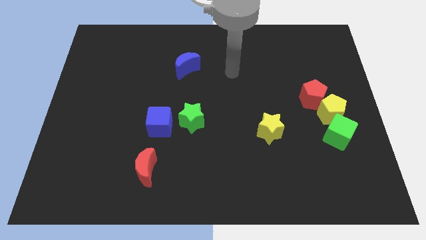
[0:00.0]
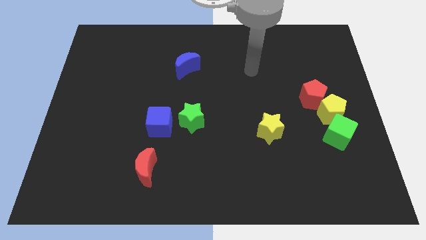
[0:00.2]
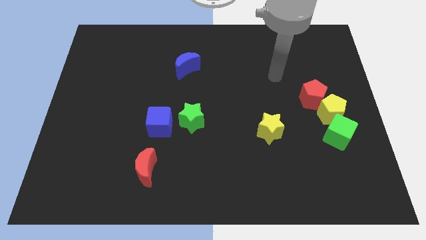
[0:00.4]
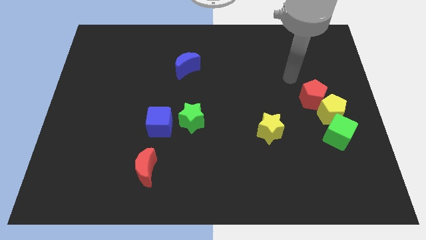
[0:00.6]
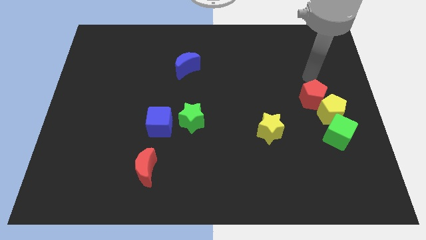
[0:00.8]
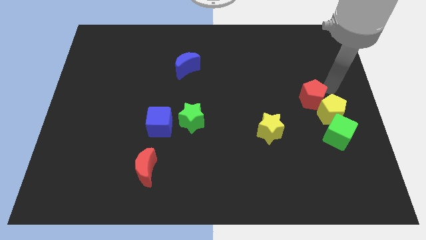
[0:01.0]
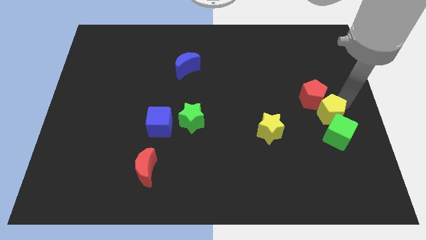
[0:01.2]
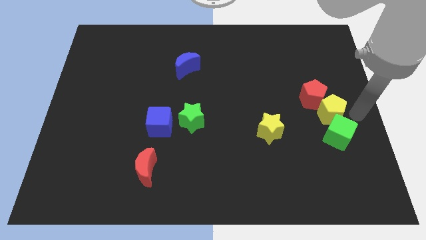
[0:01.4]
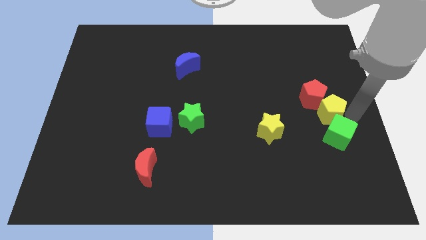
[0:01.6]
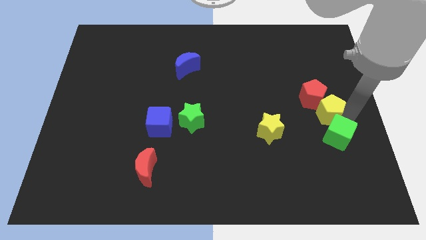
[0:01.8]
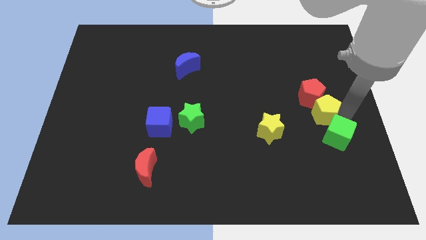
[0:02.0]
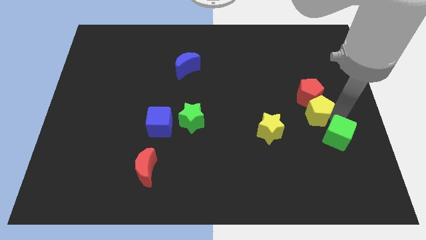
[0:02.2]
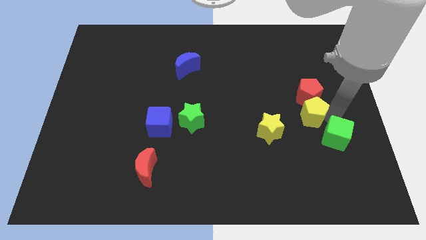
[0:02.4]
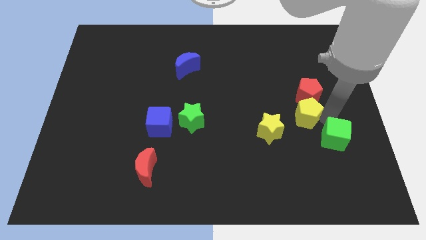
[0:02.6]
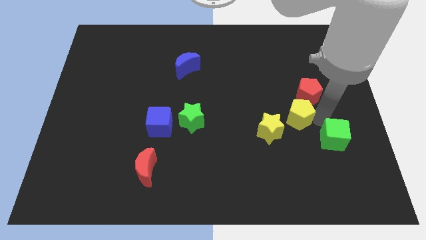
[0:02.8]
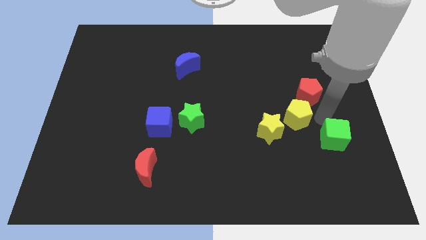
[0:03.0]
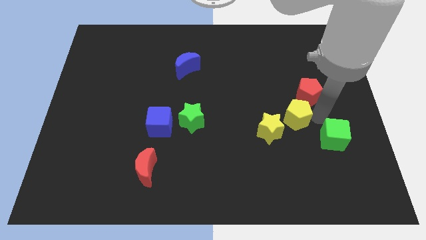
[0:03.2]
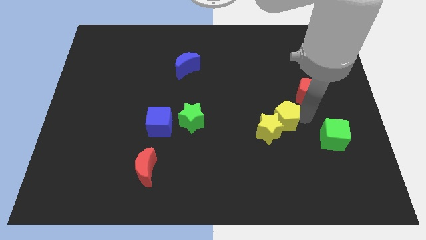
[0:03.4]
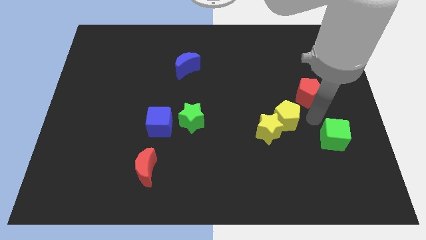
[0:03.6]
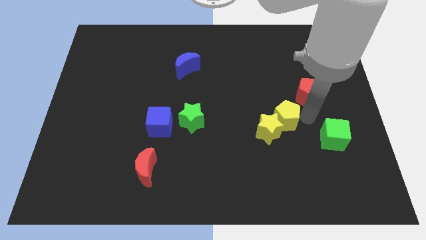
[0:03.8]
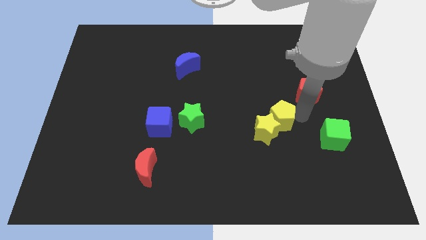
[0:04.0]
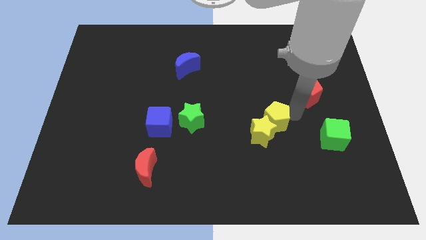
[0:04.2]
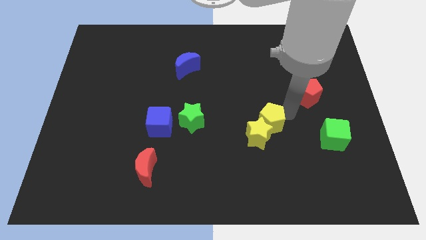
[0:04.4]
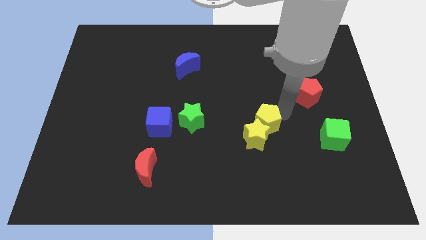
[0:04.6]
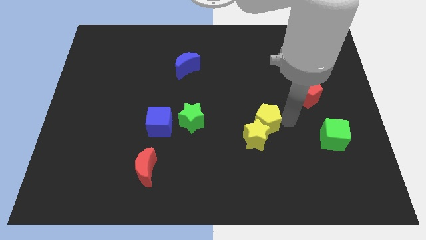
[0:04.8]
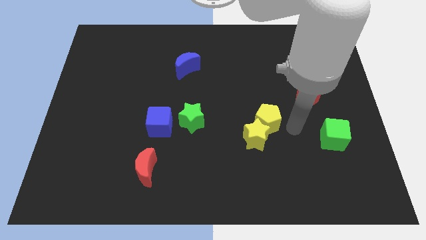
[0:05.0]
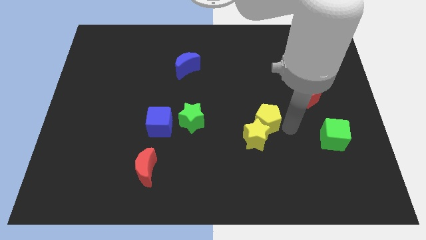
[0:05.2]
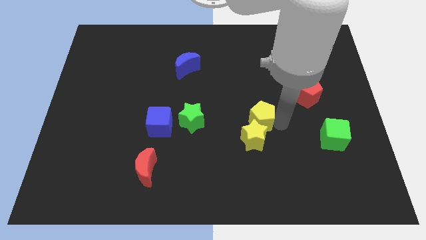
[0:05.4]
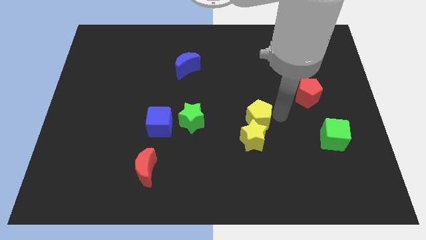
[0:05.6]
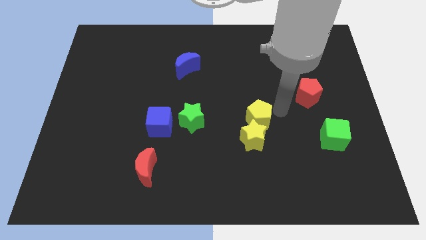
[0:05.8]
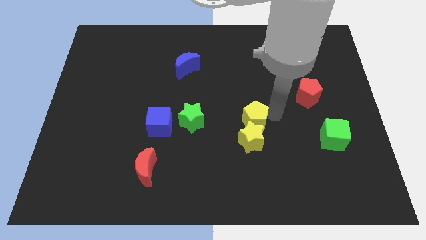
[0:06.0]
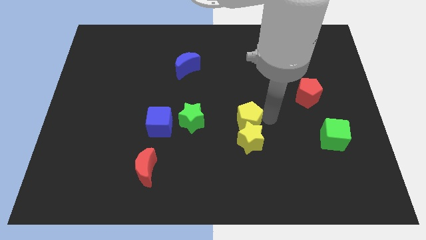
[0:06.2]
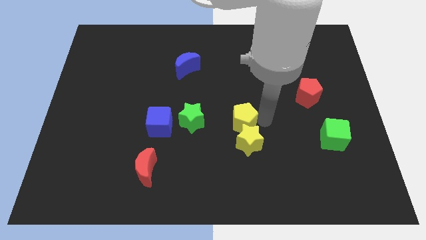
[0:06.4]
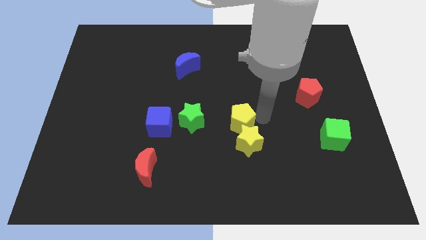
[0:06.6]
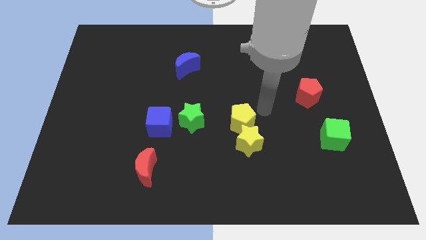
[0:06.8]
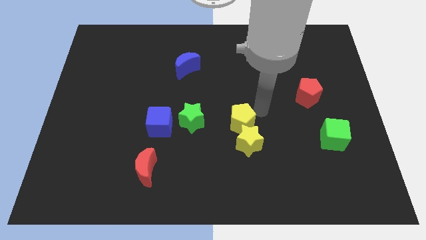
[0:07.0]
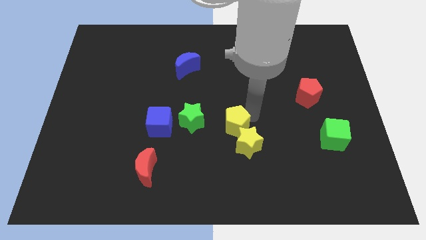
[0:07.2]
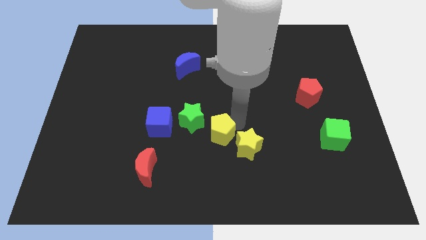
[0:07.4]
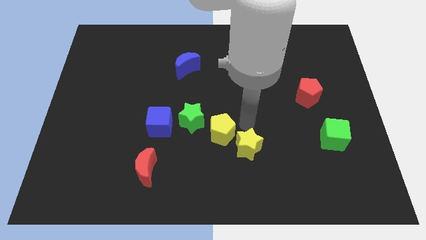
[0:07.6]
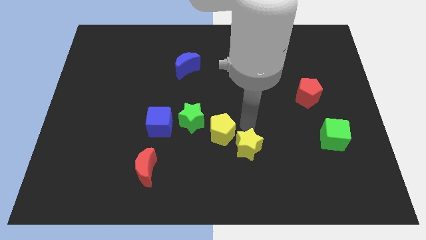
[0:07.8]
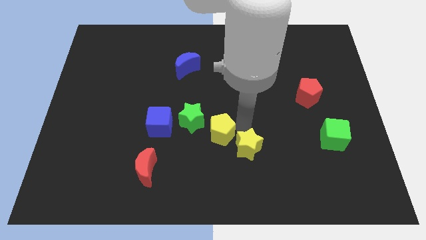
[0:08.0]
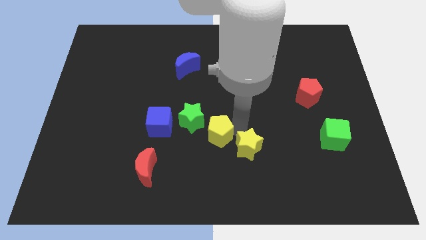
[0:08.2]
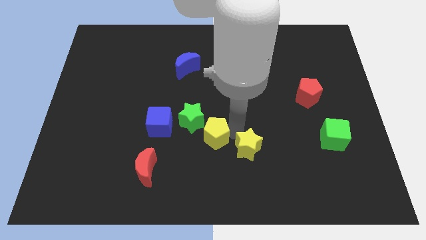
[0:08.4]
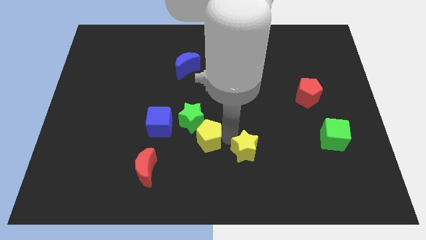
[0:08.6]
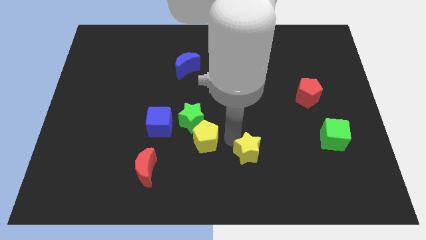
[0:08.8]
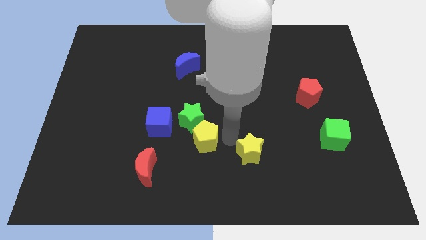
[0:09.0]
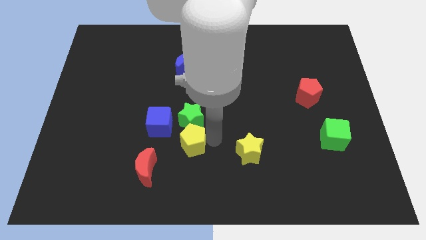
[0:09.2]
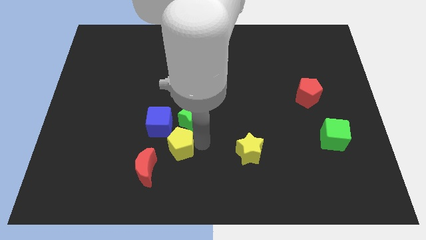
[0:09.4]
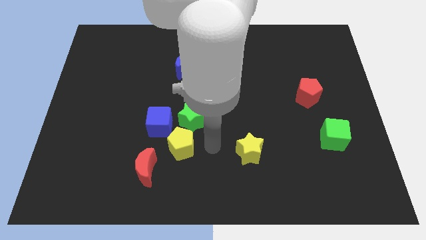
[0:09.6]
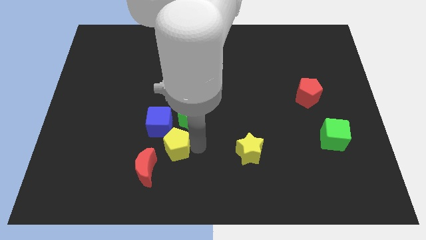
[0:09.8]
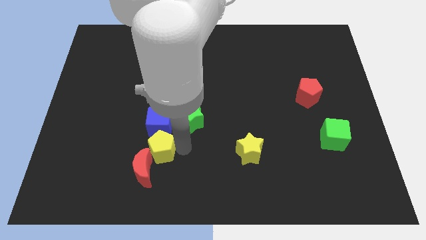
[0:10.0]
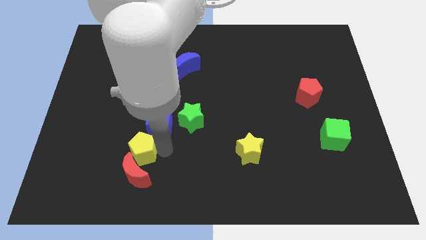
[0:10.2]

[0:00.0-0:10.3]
move the yellow pentagon diagonally up and to the left of the red moon

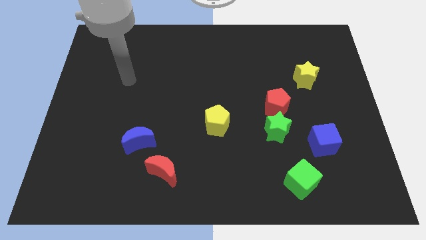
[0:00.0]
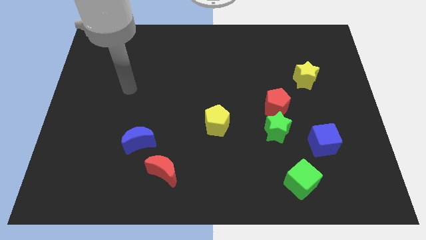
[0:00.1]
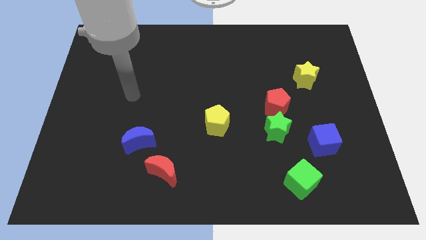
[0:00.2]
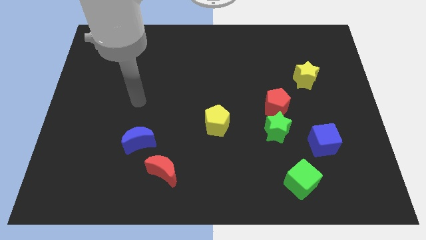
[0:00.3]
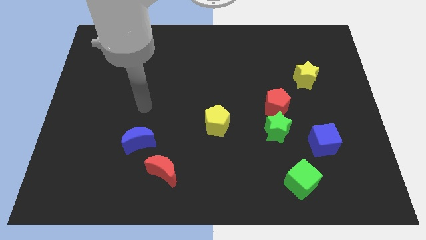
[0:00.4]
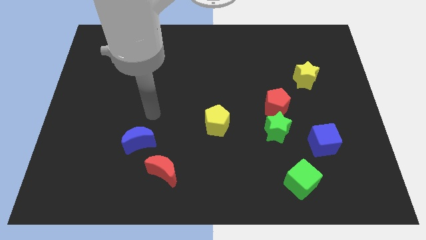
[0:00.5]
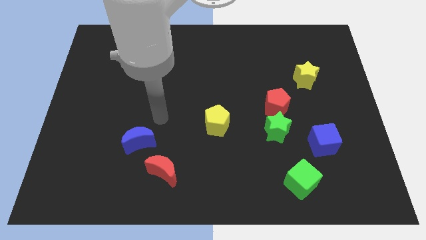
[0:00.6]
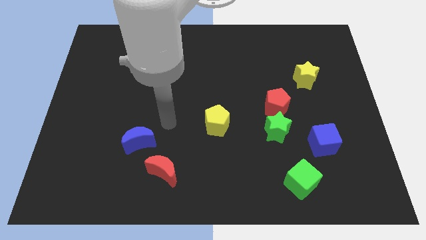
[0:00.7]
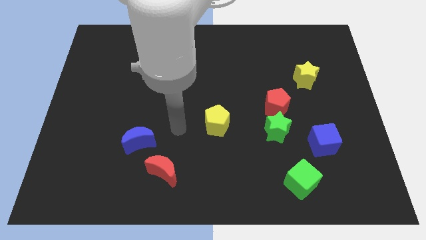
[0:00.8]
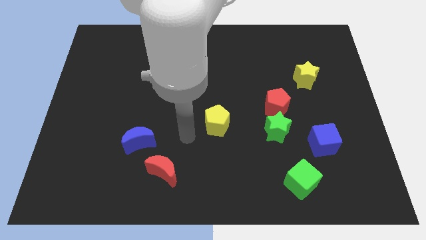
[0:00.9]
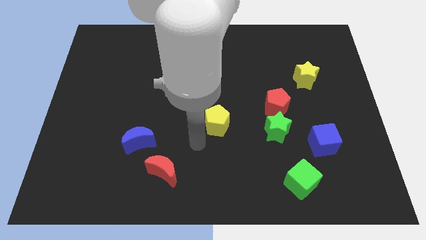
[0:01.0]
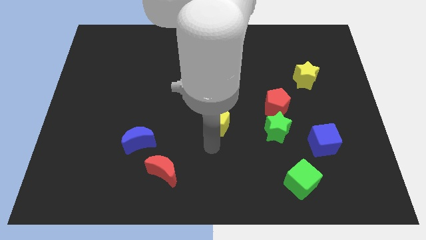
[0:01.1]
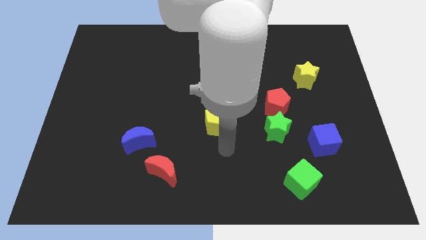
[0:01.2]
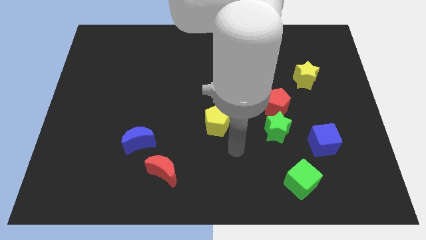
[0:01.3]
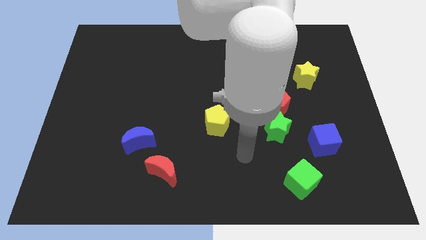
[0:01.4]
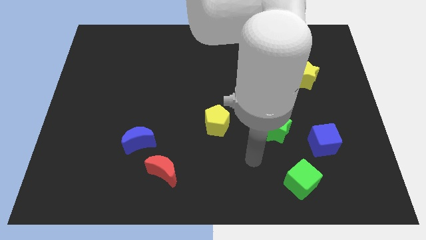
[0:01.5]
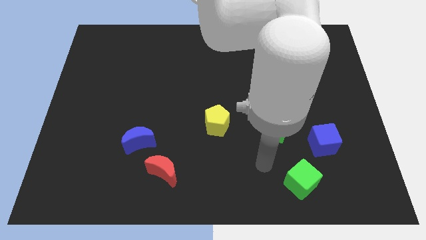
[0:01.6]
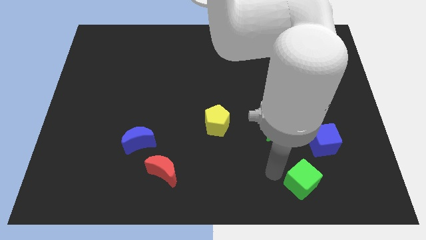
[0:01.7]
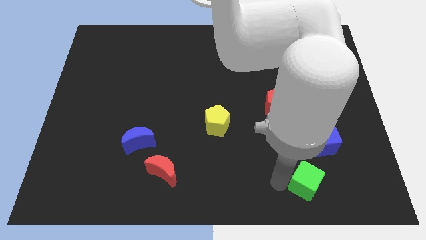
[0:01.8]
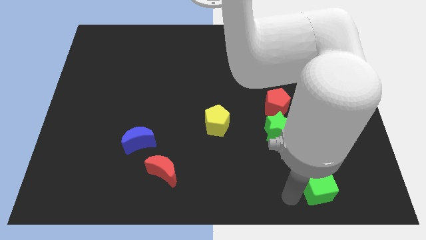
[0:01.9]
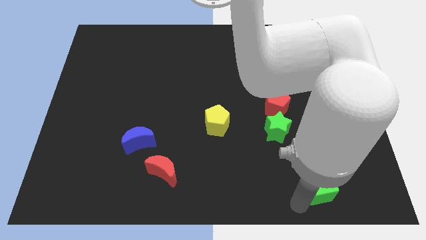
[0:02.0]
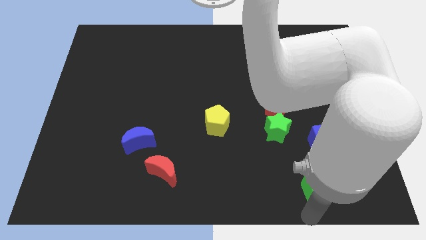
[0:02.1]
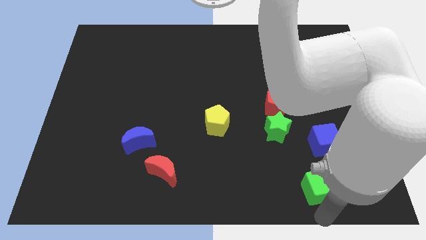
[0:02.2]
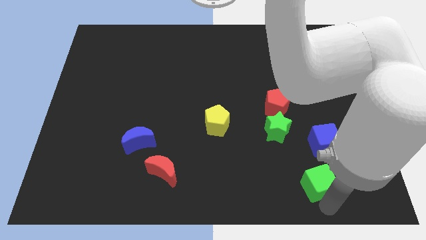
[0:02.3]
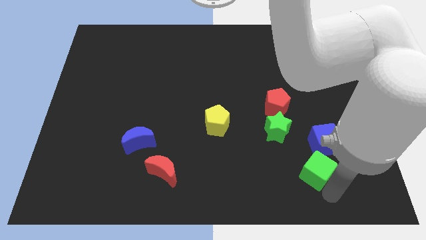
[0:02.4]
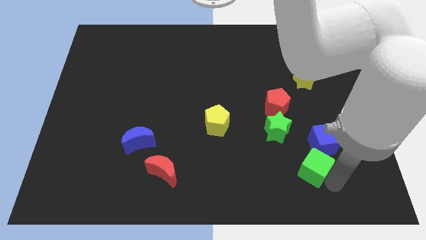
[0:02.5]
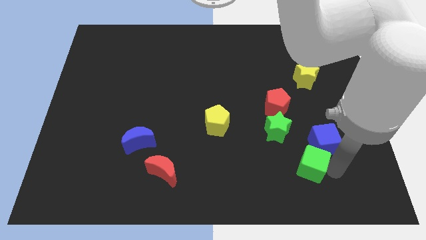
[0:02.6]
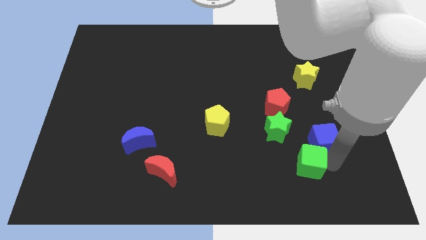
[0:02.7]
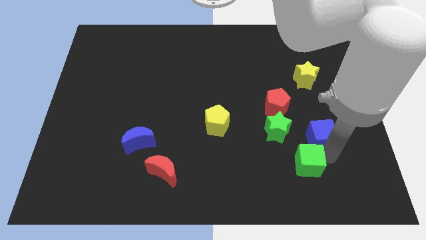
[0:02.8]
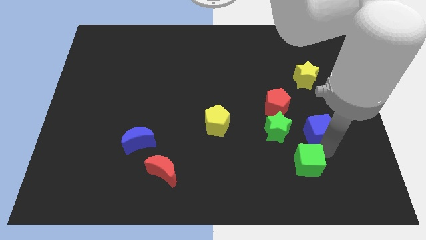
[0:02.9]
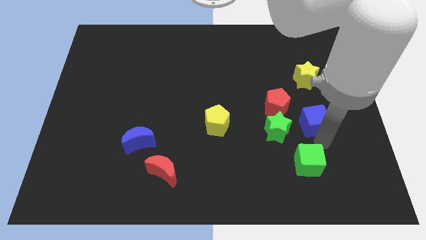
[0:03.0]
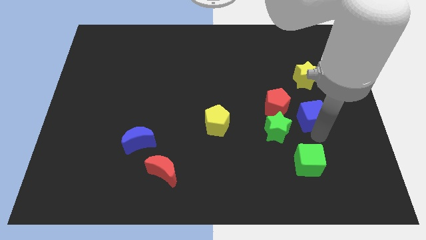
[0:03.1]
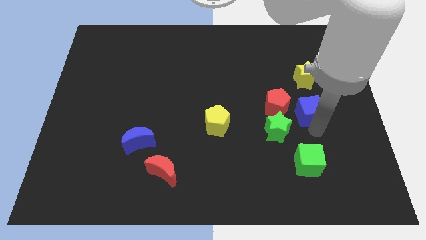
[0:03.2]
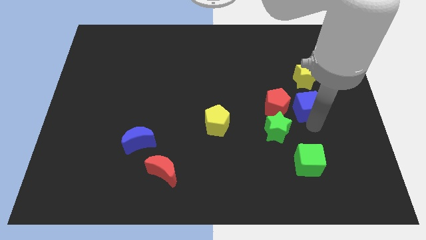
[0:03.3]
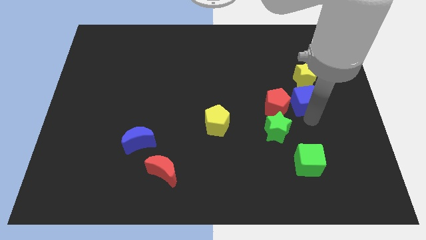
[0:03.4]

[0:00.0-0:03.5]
move the blue cube to the top right of the red pentagon
